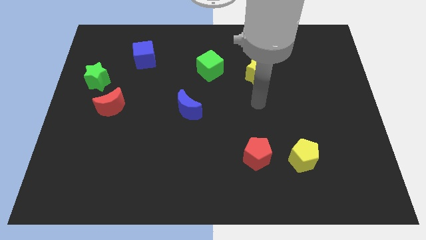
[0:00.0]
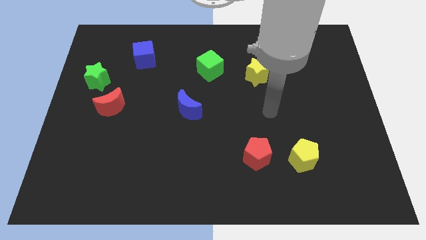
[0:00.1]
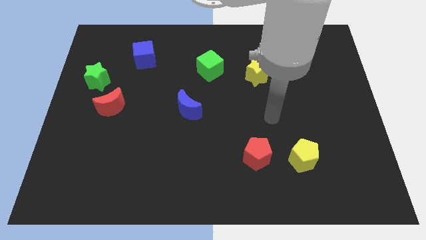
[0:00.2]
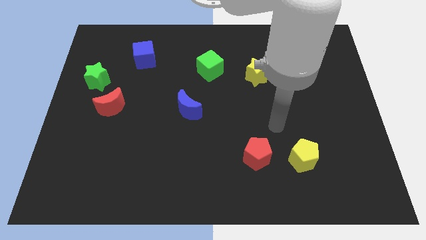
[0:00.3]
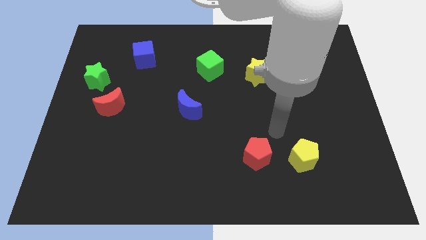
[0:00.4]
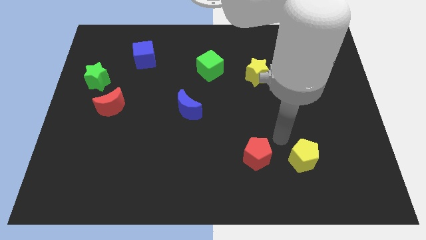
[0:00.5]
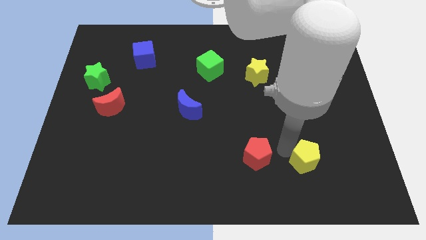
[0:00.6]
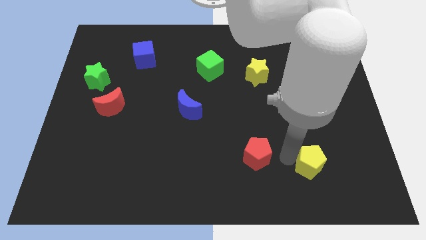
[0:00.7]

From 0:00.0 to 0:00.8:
separate the red pentagon from the yellow pentagon

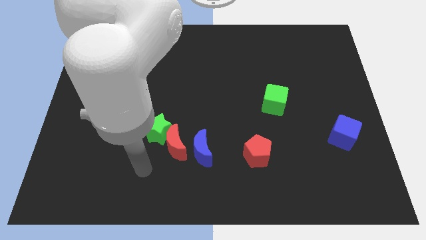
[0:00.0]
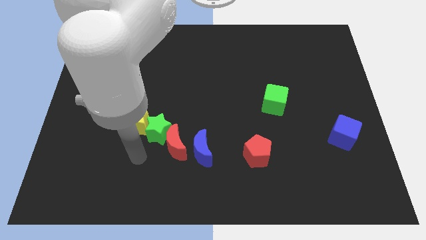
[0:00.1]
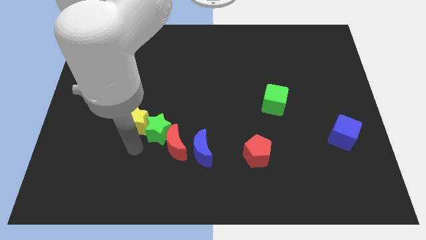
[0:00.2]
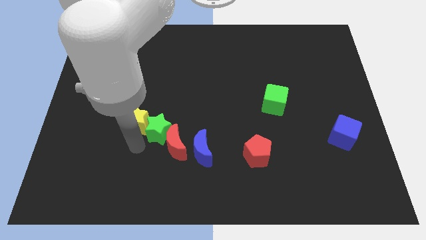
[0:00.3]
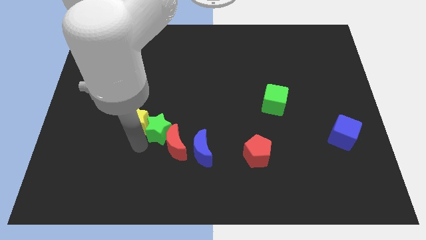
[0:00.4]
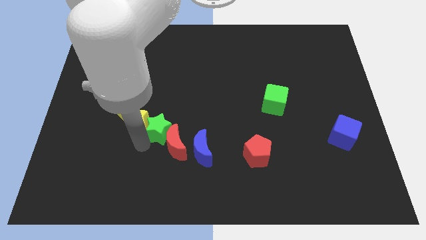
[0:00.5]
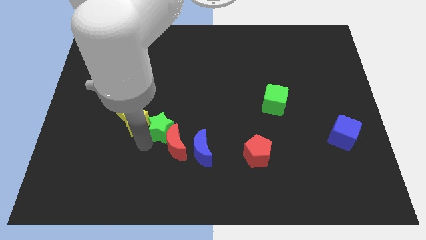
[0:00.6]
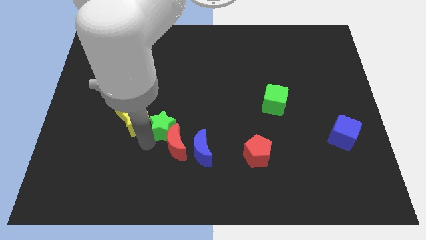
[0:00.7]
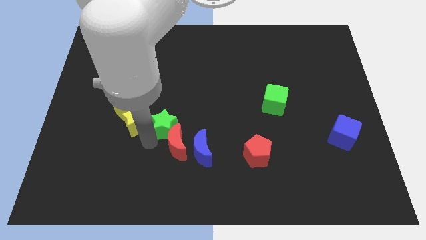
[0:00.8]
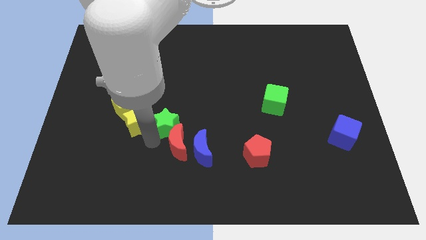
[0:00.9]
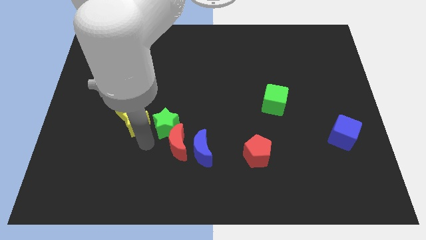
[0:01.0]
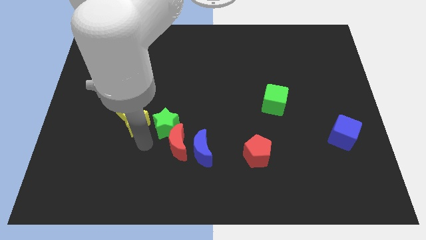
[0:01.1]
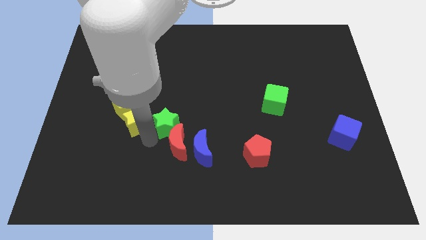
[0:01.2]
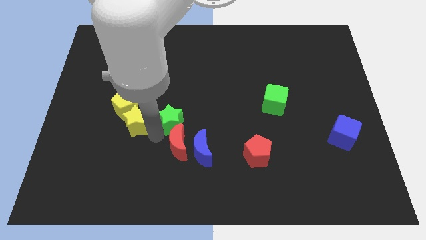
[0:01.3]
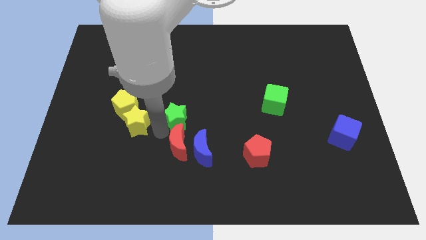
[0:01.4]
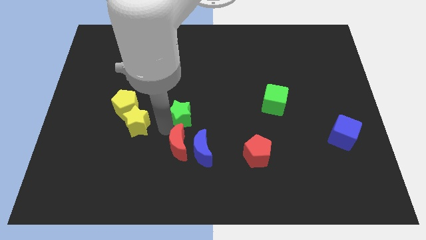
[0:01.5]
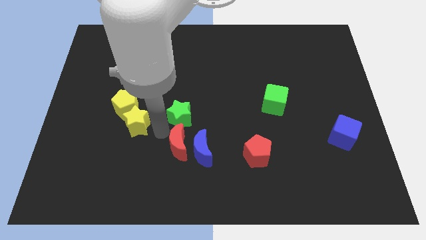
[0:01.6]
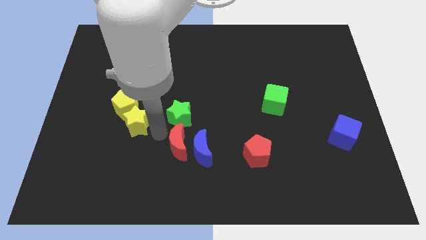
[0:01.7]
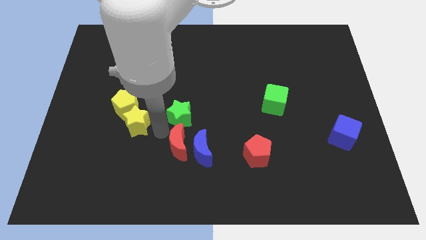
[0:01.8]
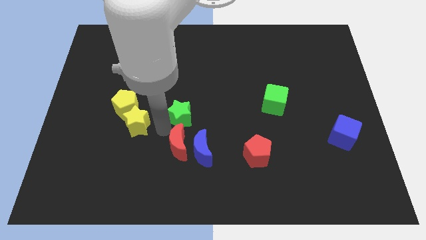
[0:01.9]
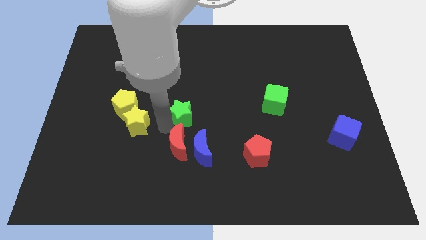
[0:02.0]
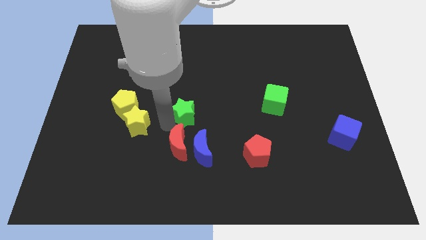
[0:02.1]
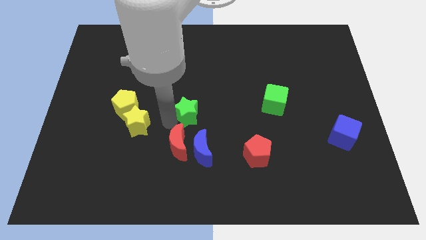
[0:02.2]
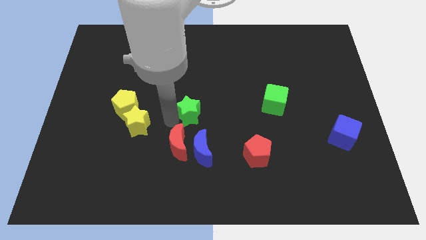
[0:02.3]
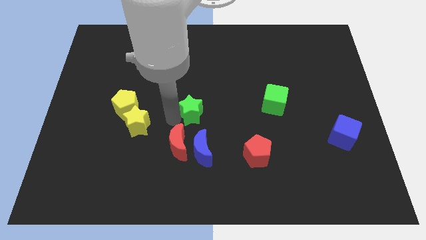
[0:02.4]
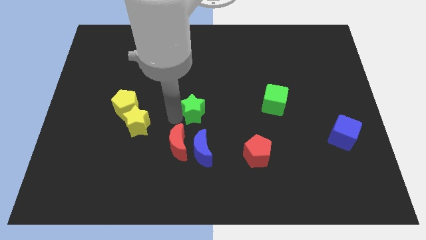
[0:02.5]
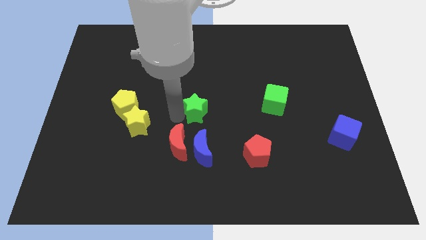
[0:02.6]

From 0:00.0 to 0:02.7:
move the green star away from the red moon and yellow star

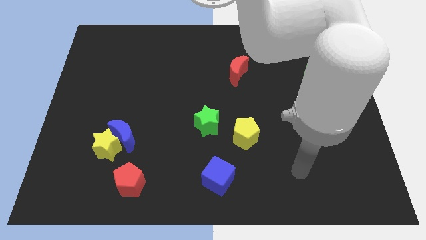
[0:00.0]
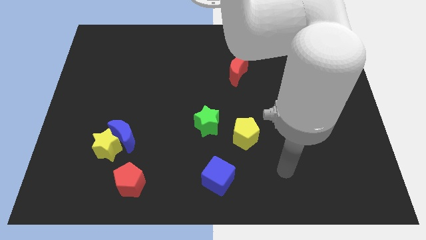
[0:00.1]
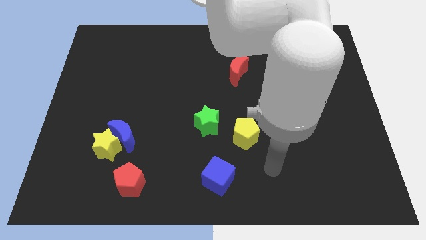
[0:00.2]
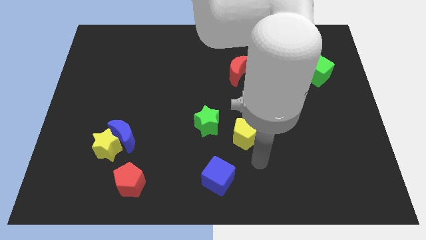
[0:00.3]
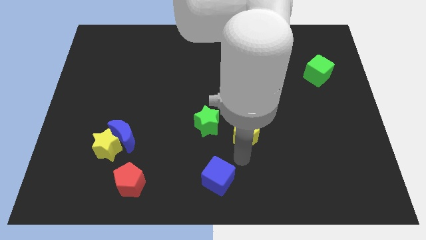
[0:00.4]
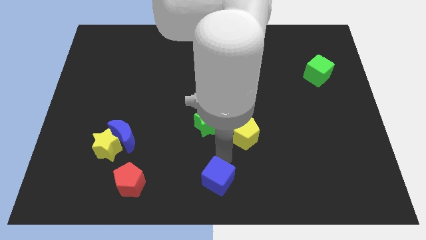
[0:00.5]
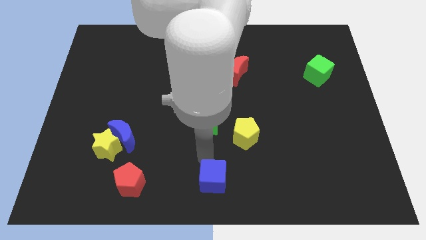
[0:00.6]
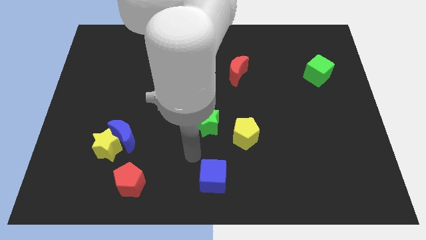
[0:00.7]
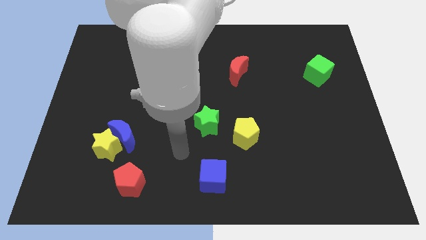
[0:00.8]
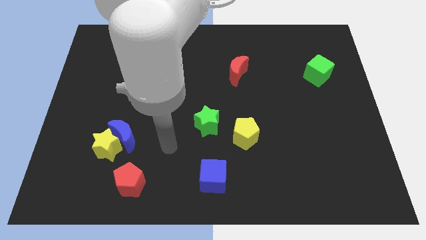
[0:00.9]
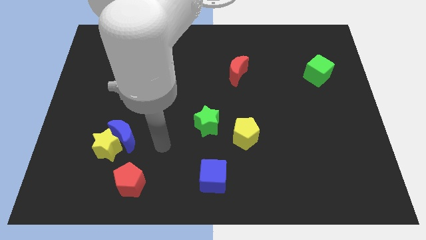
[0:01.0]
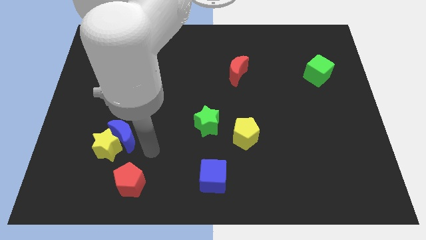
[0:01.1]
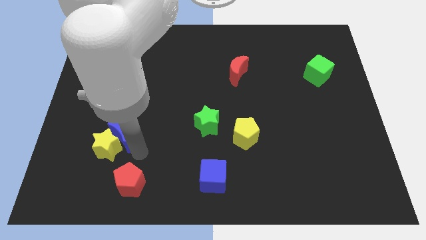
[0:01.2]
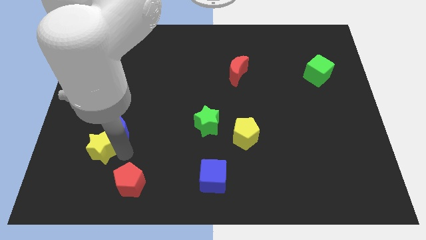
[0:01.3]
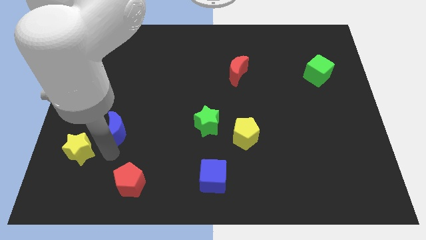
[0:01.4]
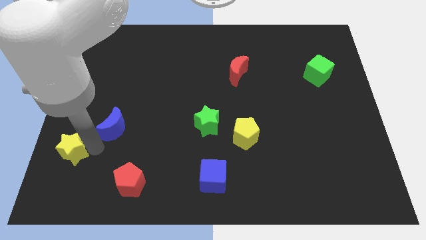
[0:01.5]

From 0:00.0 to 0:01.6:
separate the blue moon from the yellow star

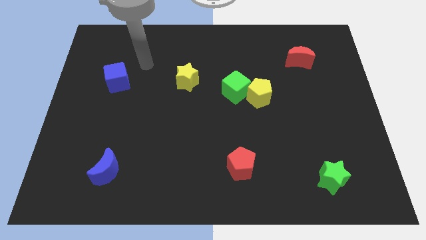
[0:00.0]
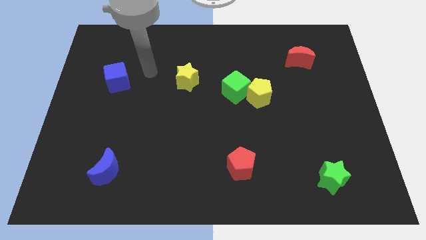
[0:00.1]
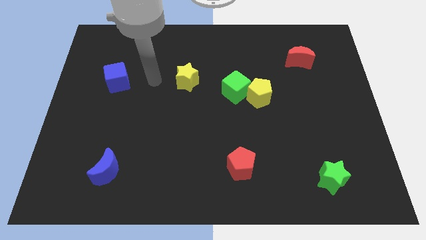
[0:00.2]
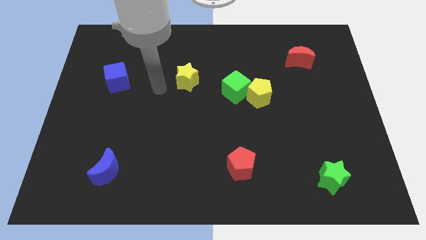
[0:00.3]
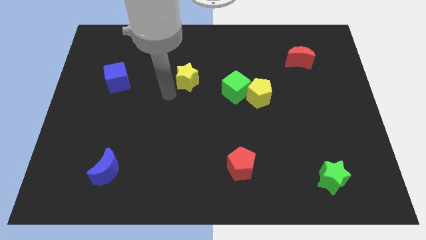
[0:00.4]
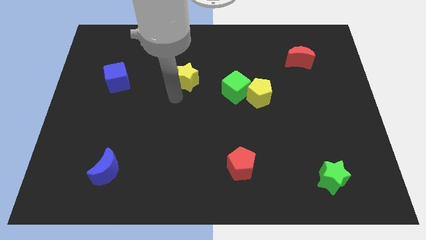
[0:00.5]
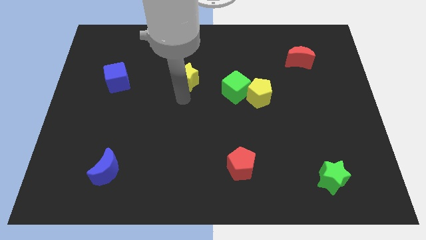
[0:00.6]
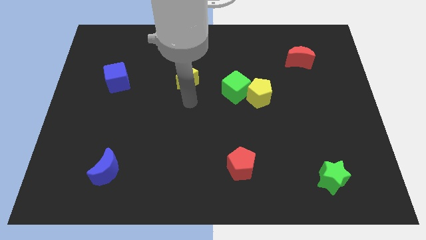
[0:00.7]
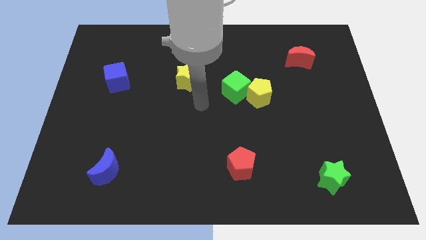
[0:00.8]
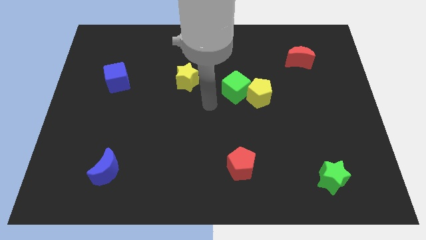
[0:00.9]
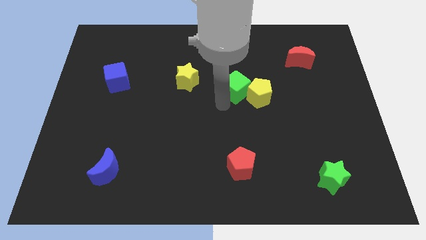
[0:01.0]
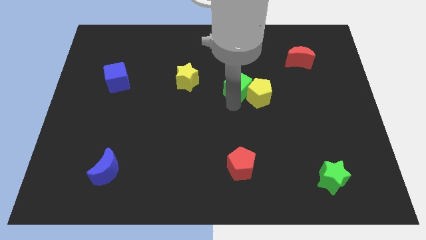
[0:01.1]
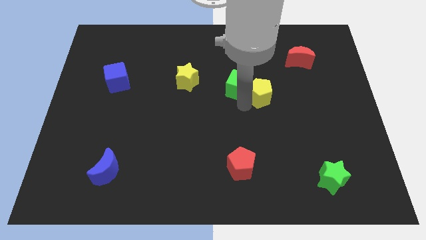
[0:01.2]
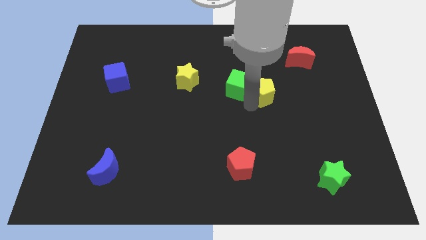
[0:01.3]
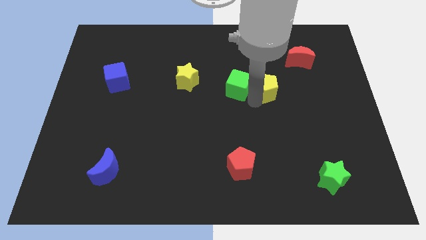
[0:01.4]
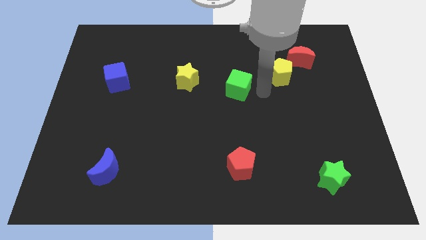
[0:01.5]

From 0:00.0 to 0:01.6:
pull the green cube apart from the yellow pentagon

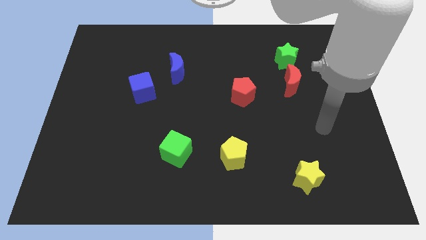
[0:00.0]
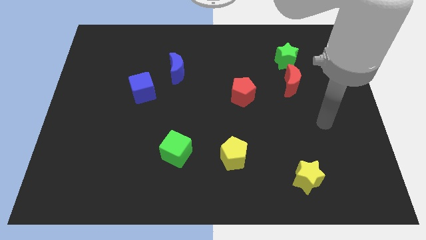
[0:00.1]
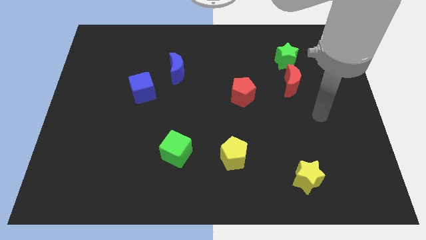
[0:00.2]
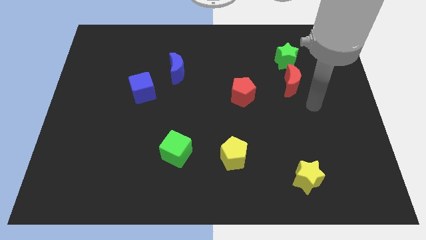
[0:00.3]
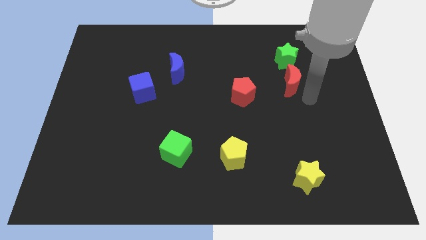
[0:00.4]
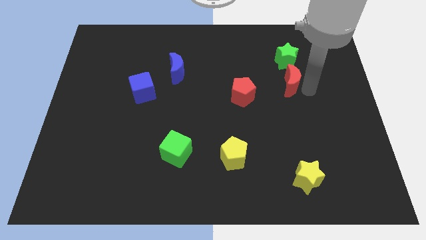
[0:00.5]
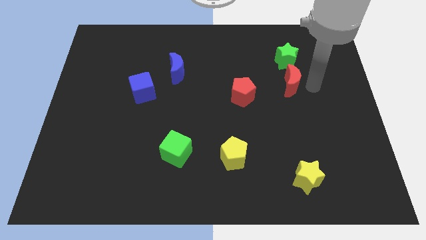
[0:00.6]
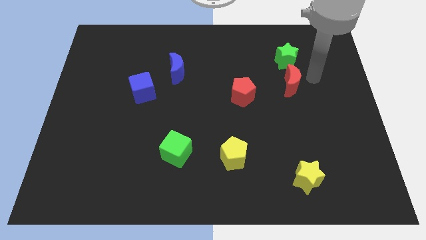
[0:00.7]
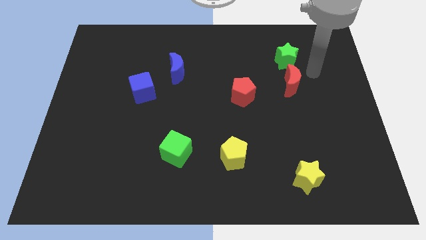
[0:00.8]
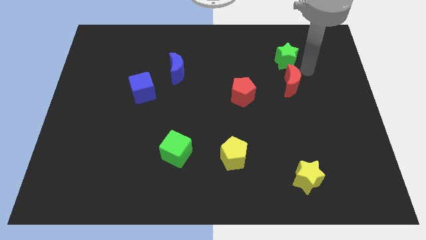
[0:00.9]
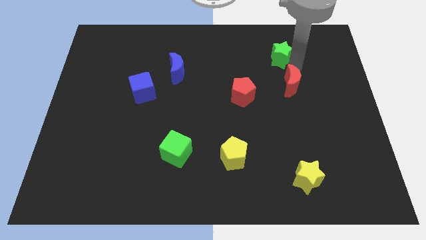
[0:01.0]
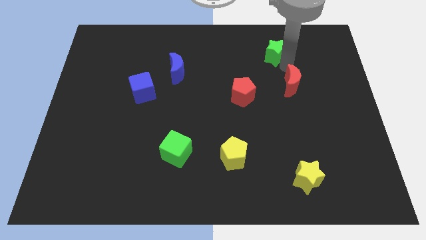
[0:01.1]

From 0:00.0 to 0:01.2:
pull the red moon apart from the green star

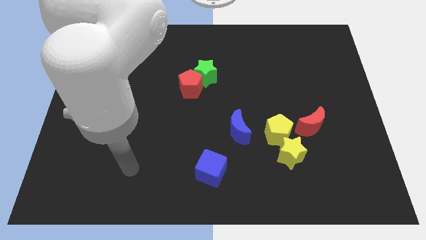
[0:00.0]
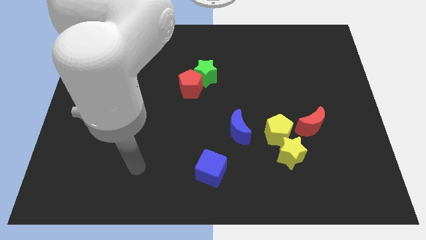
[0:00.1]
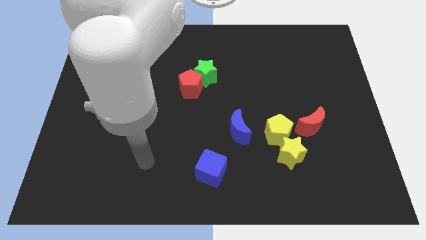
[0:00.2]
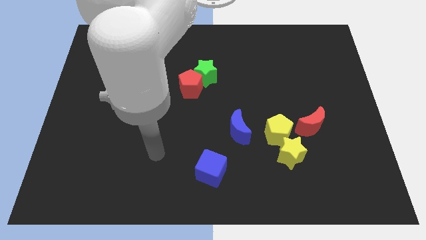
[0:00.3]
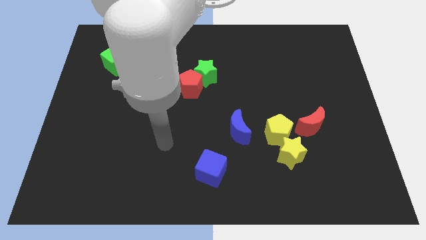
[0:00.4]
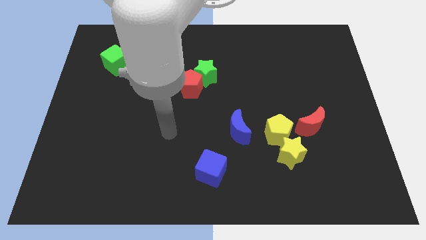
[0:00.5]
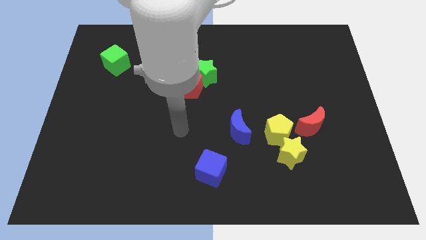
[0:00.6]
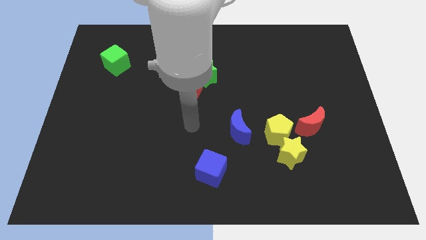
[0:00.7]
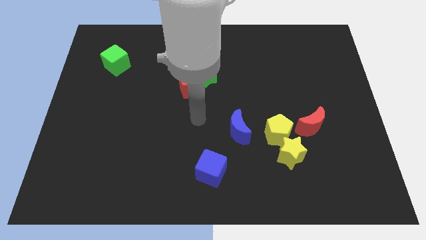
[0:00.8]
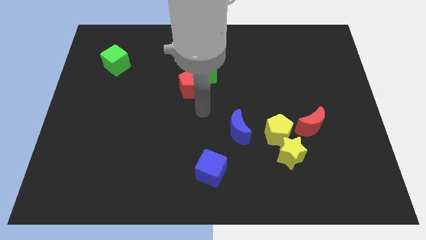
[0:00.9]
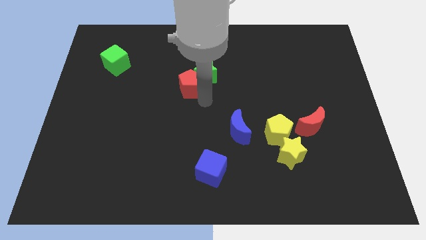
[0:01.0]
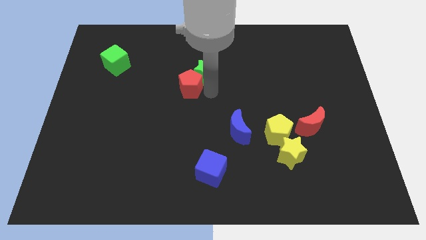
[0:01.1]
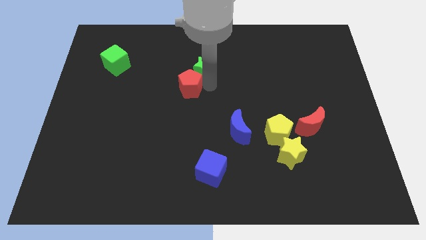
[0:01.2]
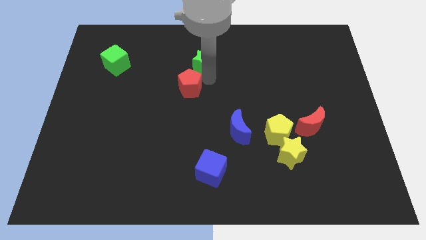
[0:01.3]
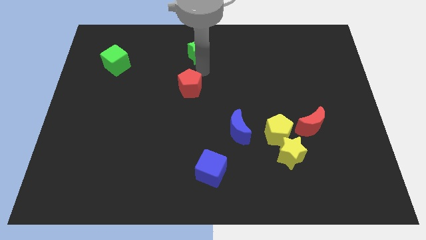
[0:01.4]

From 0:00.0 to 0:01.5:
separate the red pentagon from the green star
